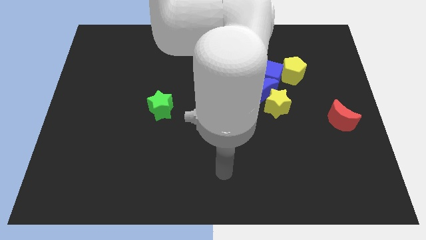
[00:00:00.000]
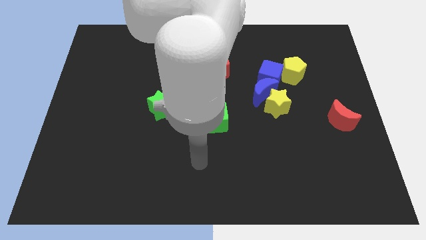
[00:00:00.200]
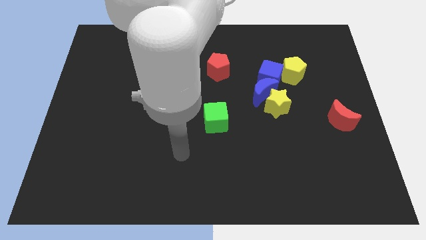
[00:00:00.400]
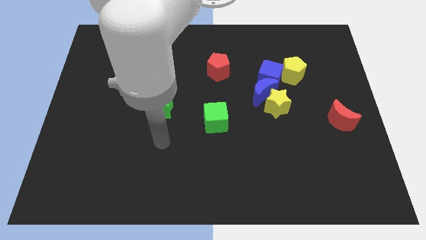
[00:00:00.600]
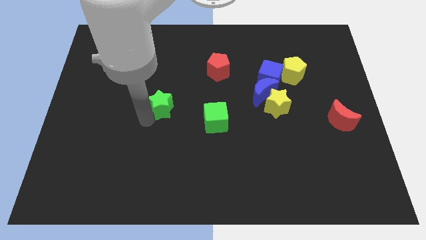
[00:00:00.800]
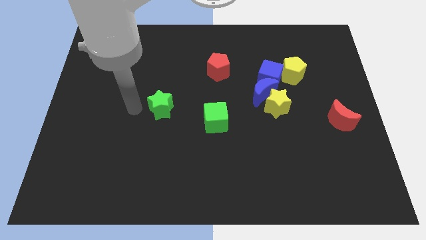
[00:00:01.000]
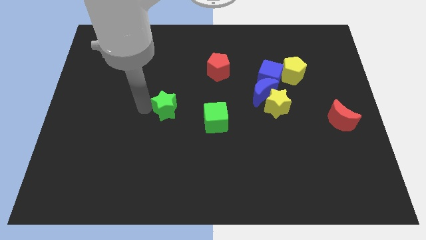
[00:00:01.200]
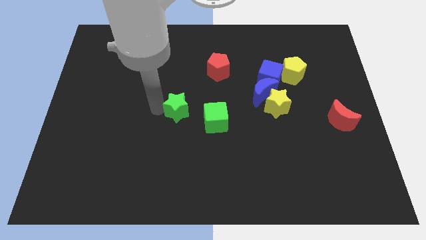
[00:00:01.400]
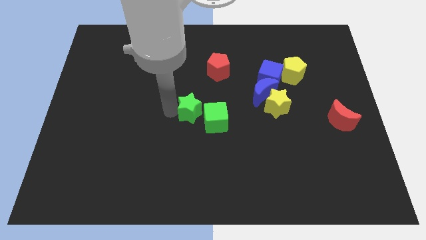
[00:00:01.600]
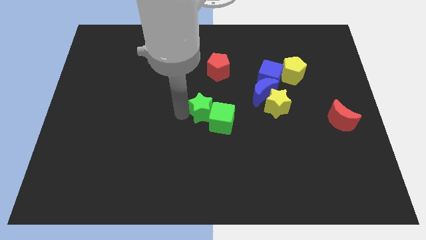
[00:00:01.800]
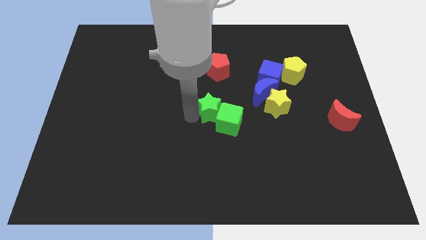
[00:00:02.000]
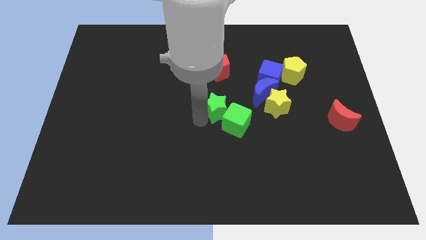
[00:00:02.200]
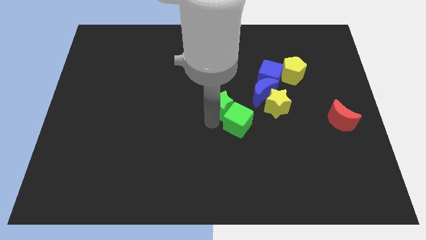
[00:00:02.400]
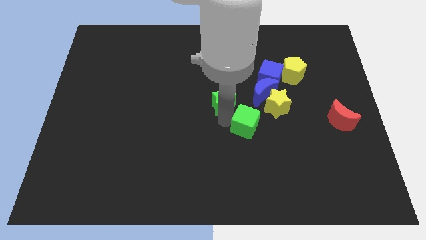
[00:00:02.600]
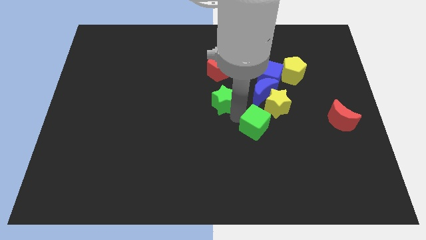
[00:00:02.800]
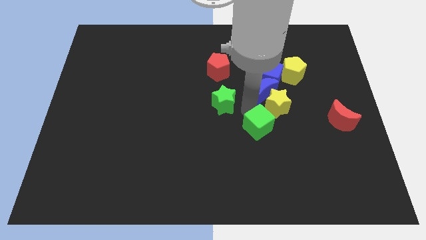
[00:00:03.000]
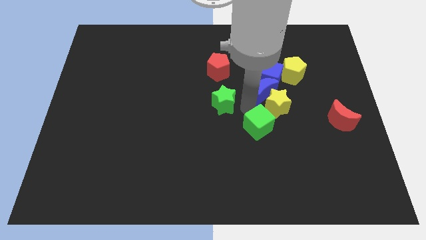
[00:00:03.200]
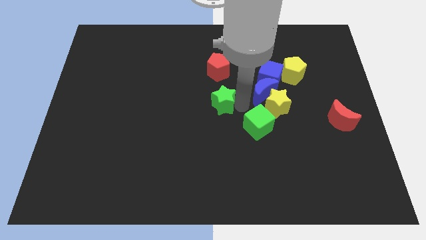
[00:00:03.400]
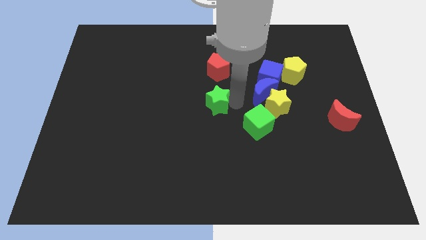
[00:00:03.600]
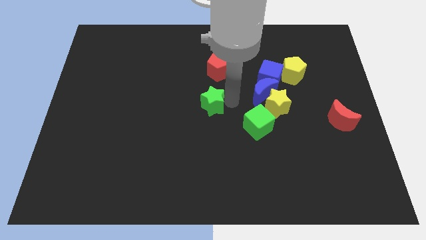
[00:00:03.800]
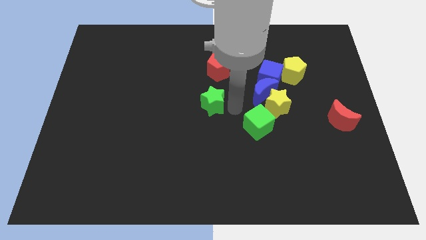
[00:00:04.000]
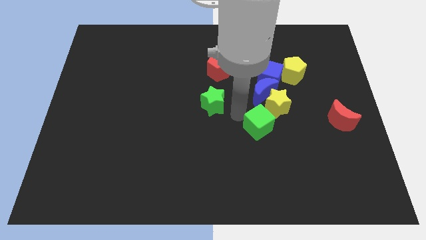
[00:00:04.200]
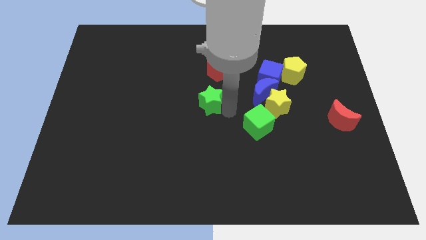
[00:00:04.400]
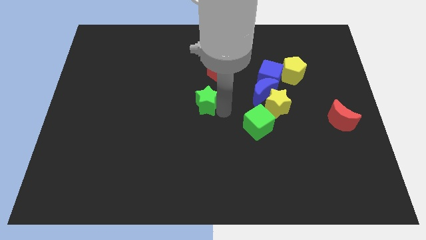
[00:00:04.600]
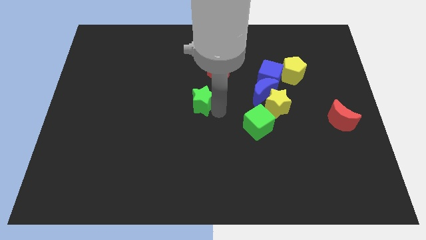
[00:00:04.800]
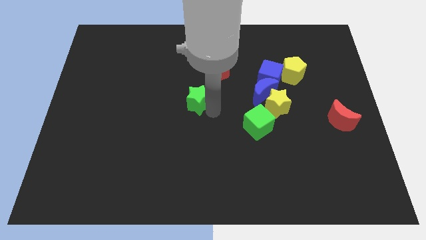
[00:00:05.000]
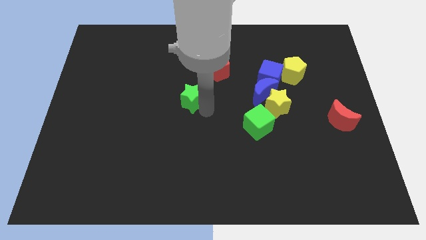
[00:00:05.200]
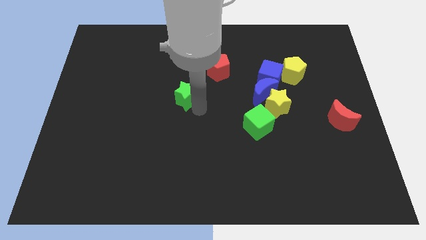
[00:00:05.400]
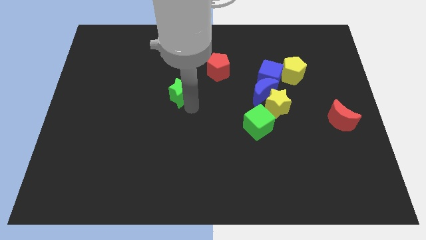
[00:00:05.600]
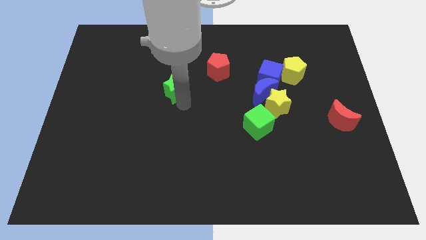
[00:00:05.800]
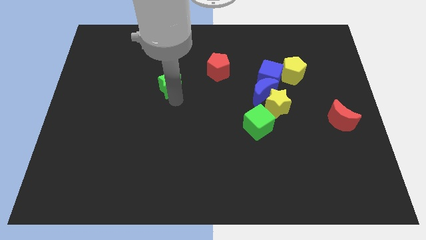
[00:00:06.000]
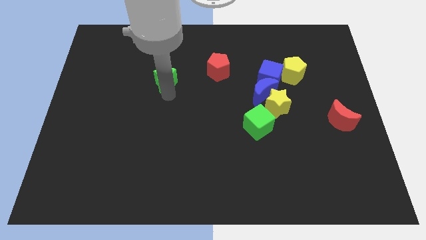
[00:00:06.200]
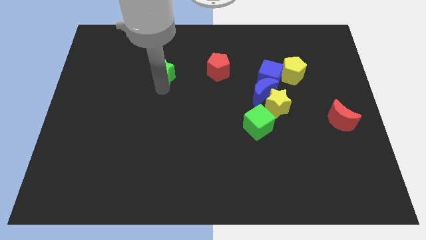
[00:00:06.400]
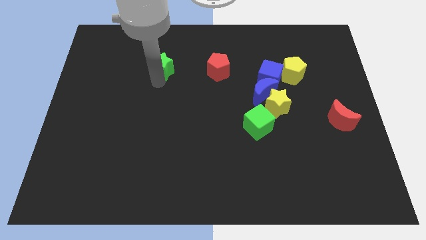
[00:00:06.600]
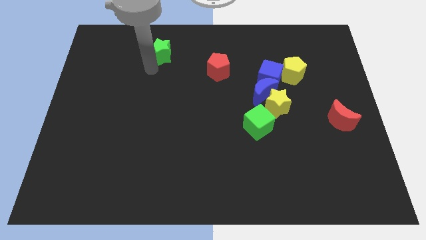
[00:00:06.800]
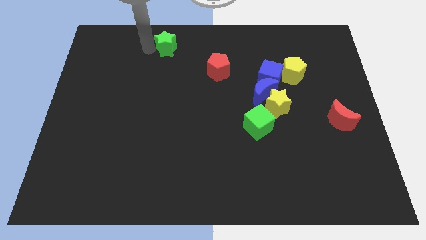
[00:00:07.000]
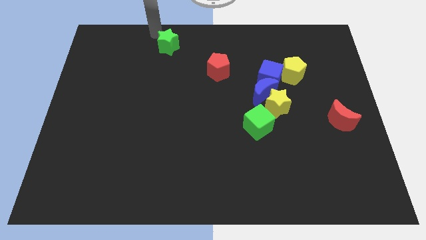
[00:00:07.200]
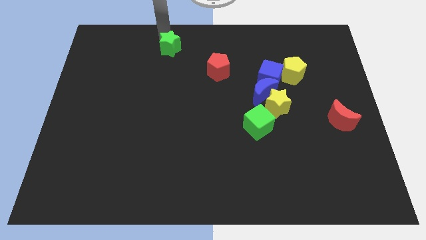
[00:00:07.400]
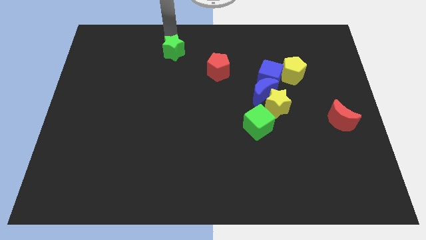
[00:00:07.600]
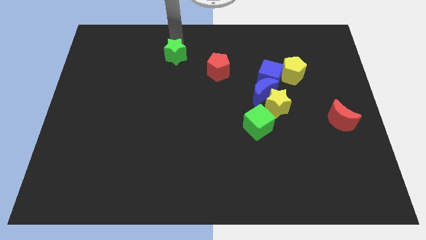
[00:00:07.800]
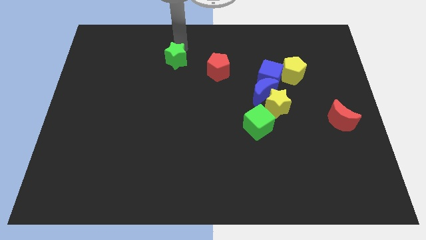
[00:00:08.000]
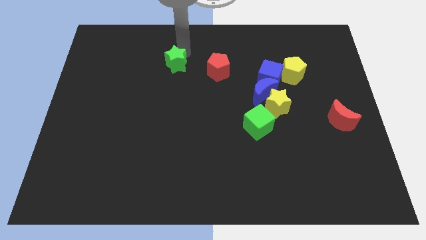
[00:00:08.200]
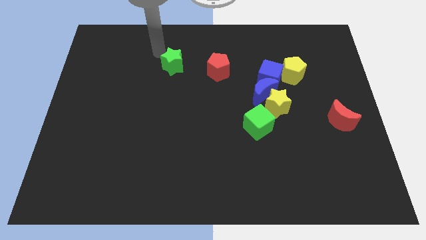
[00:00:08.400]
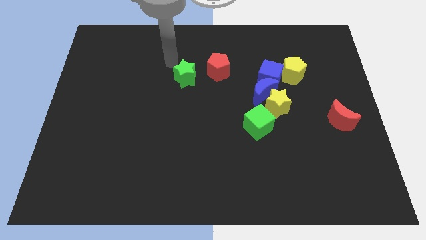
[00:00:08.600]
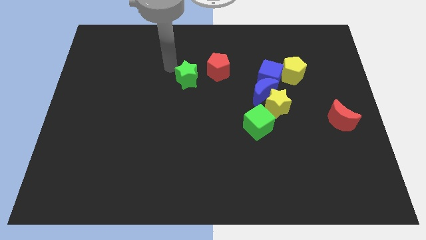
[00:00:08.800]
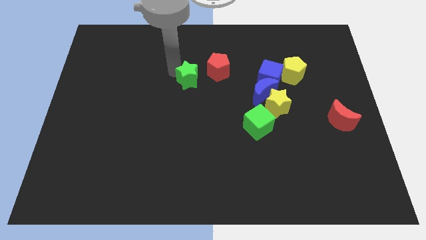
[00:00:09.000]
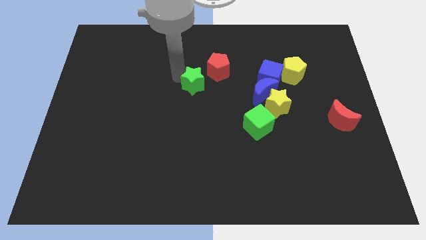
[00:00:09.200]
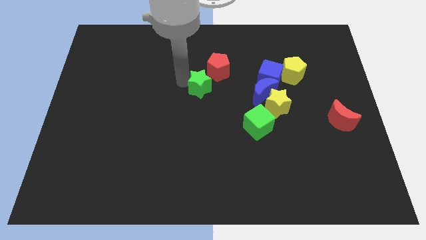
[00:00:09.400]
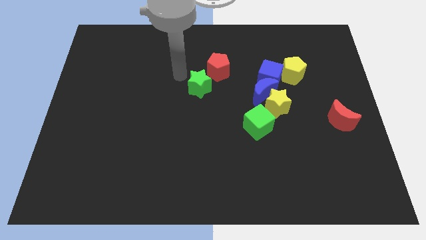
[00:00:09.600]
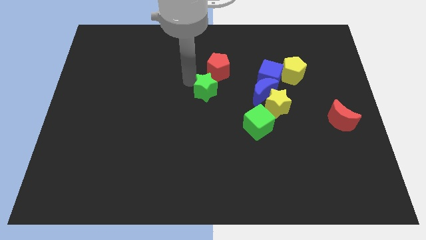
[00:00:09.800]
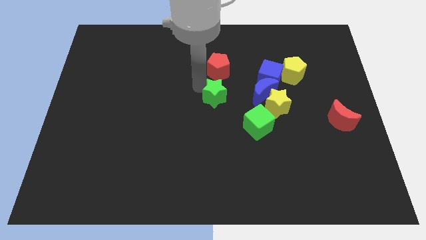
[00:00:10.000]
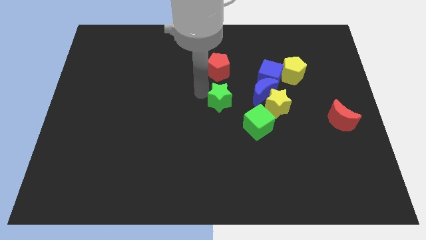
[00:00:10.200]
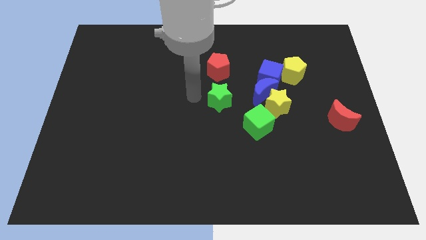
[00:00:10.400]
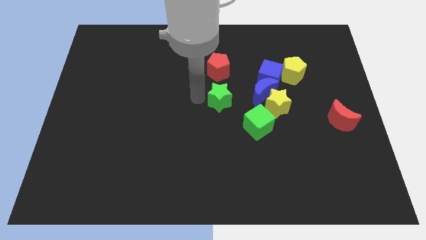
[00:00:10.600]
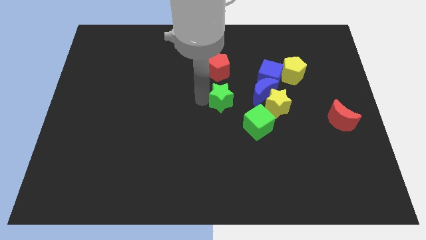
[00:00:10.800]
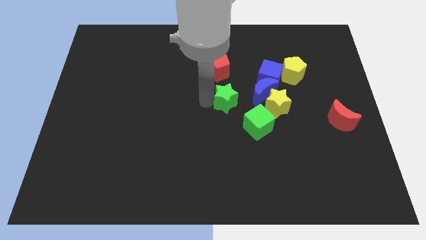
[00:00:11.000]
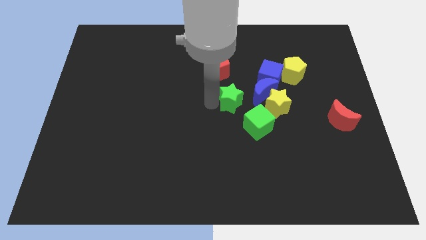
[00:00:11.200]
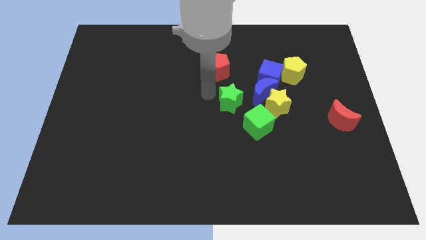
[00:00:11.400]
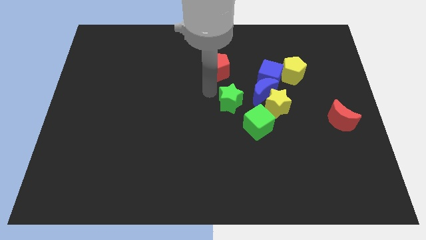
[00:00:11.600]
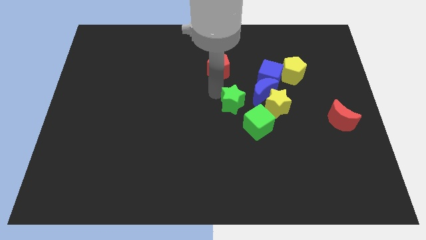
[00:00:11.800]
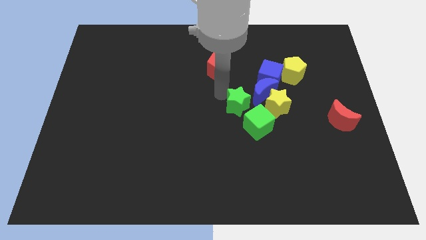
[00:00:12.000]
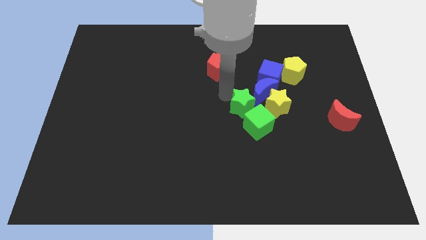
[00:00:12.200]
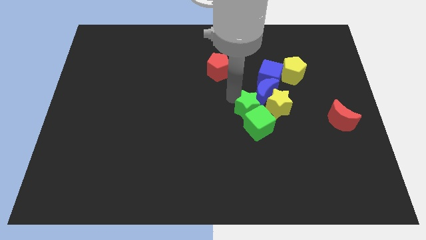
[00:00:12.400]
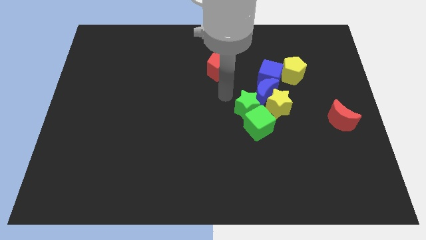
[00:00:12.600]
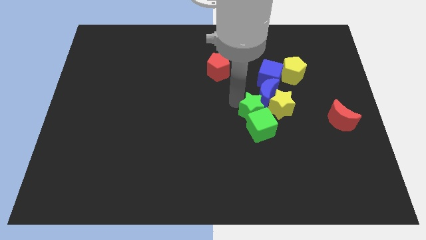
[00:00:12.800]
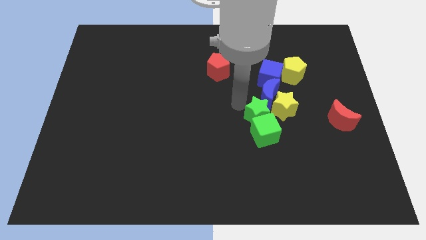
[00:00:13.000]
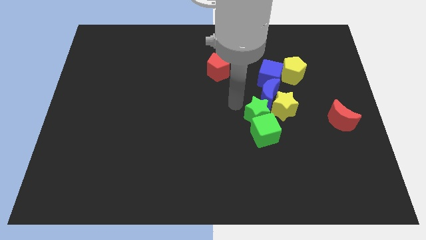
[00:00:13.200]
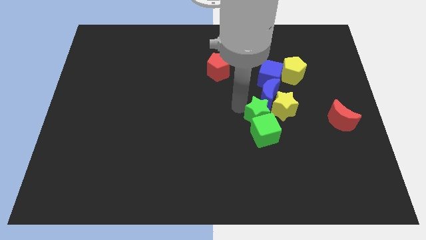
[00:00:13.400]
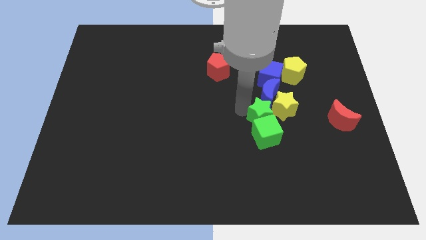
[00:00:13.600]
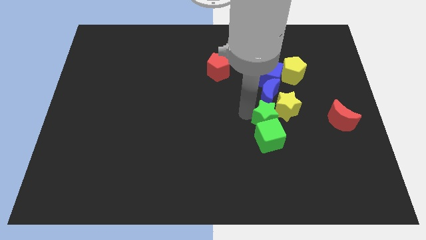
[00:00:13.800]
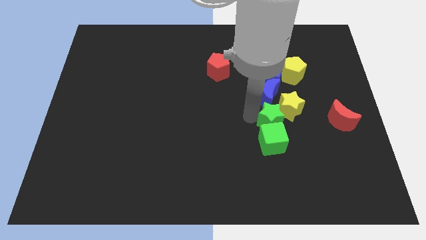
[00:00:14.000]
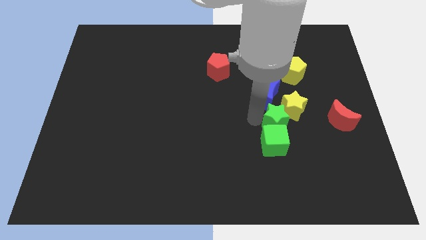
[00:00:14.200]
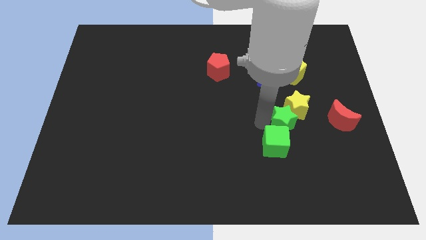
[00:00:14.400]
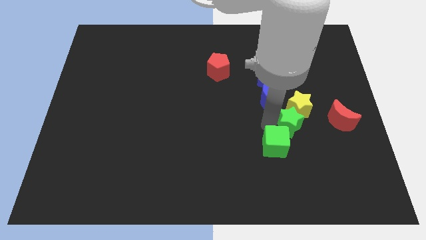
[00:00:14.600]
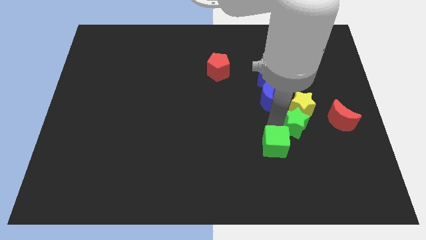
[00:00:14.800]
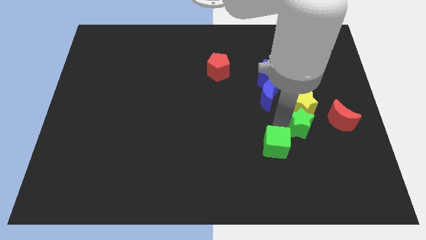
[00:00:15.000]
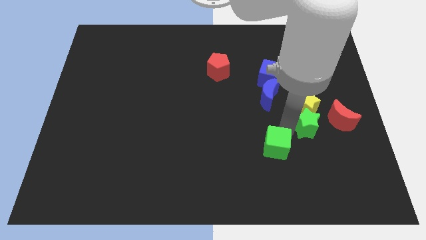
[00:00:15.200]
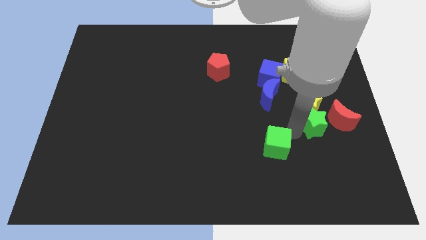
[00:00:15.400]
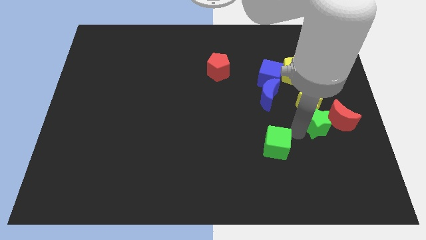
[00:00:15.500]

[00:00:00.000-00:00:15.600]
move the green star next to the red moon
